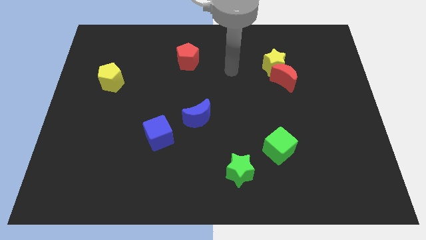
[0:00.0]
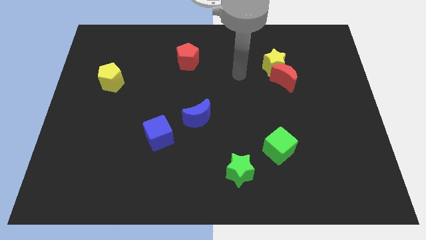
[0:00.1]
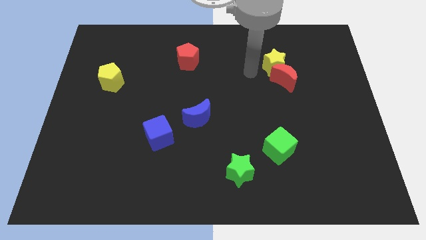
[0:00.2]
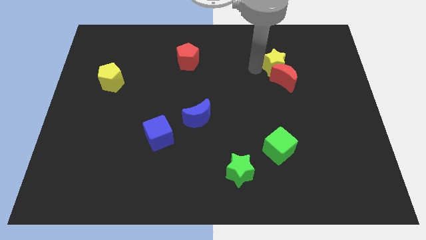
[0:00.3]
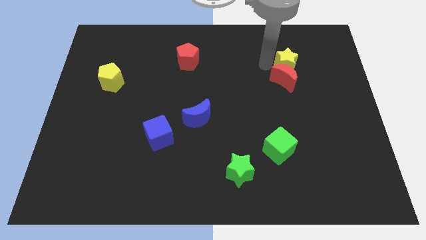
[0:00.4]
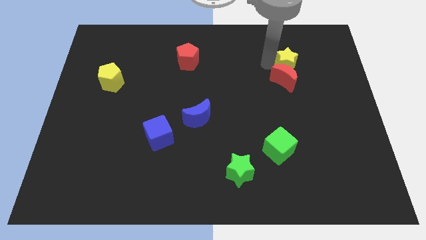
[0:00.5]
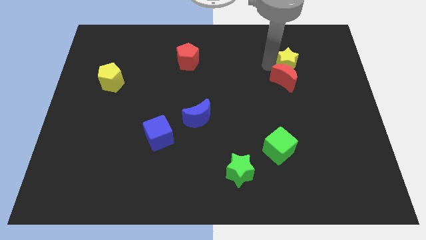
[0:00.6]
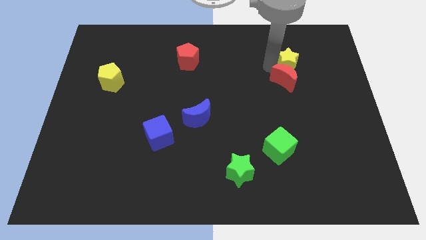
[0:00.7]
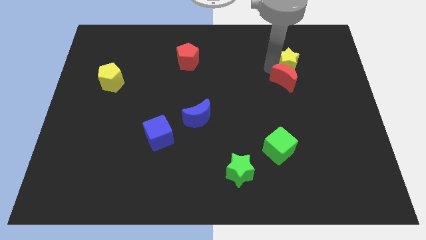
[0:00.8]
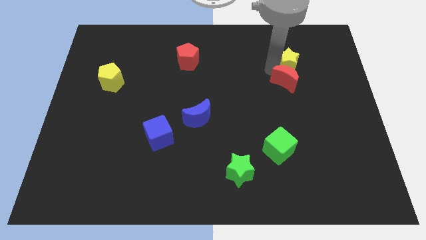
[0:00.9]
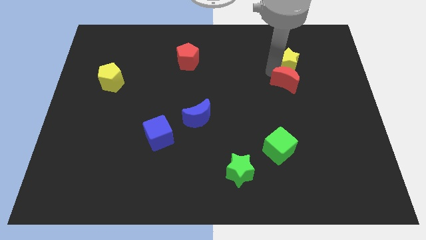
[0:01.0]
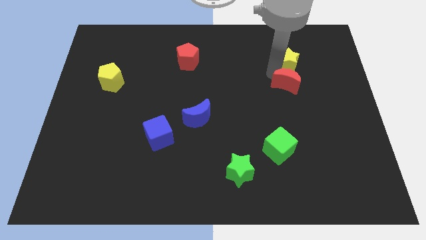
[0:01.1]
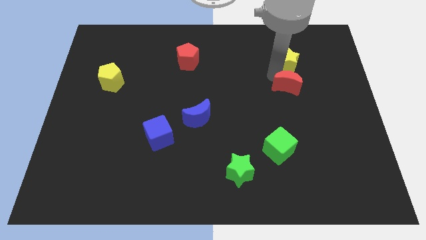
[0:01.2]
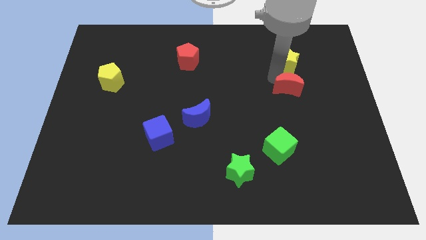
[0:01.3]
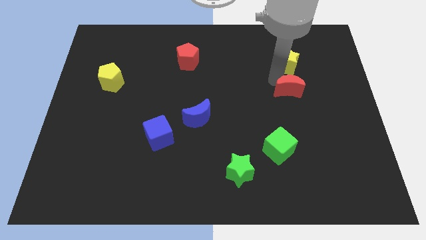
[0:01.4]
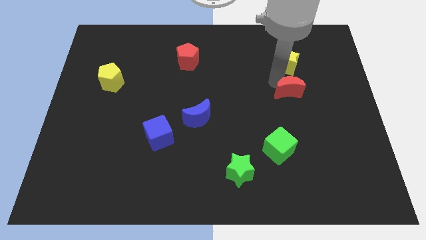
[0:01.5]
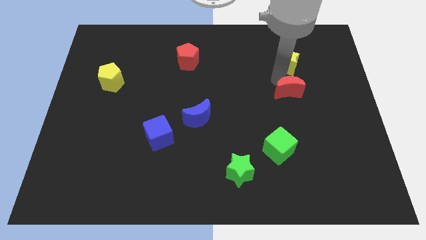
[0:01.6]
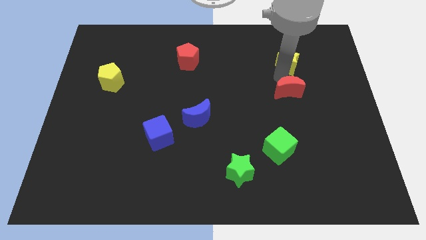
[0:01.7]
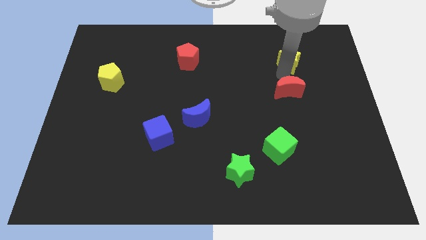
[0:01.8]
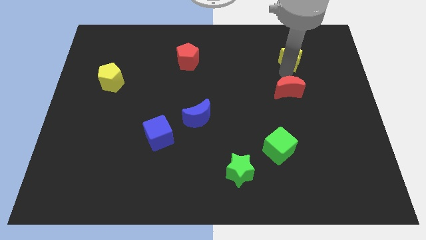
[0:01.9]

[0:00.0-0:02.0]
move the red moon away from the yellow star

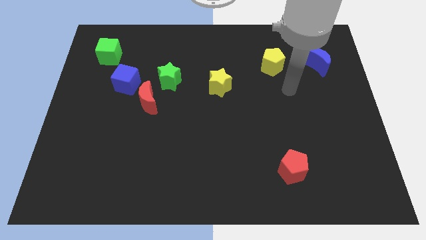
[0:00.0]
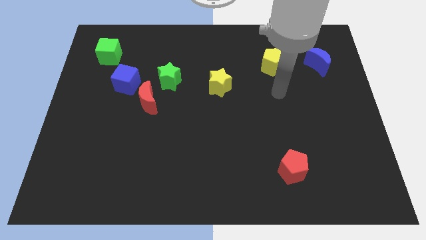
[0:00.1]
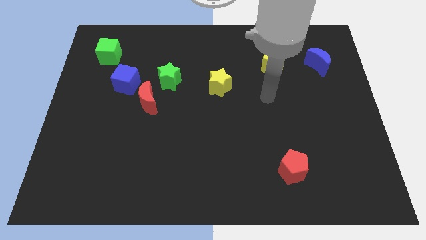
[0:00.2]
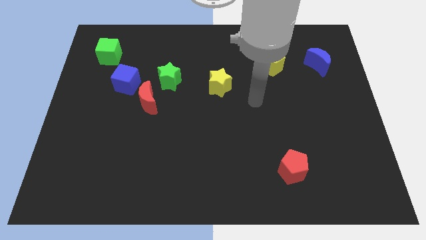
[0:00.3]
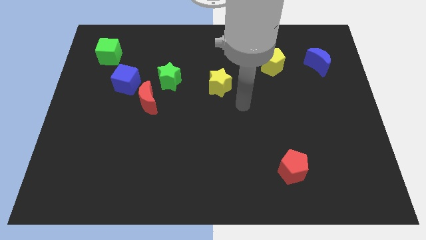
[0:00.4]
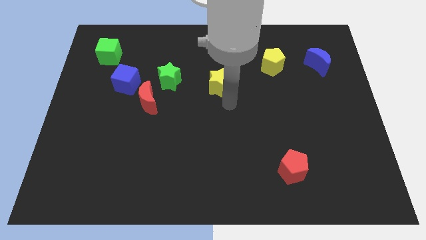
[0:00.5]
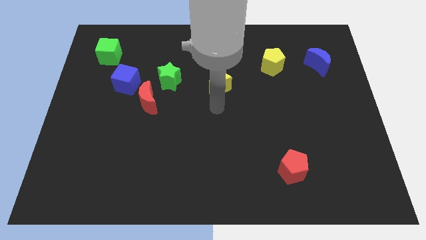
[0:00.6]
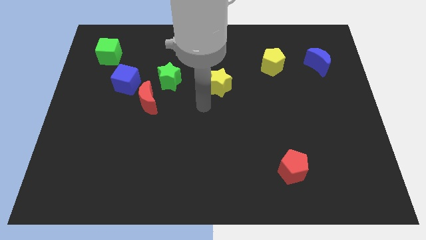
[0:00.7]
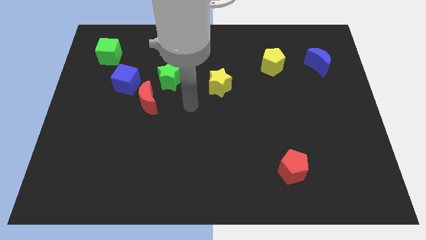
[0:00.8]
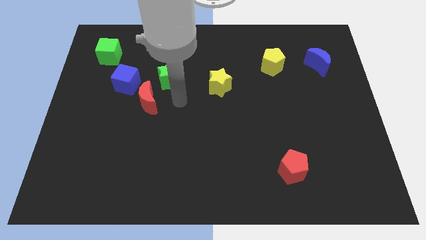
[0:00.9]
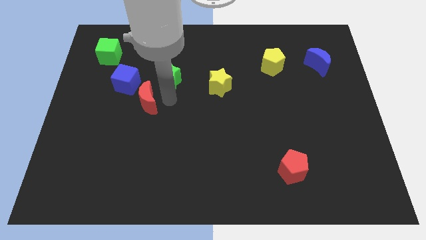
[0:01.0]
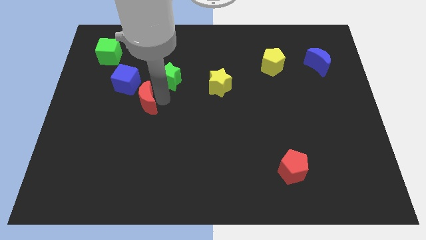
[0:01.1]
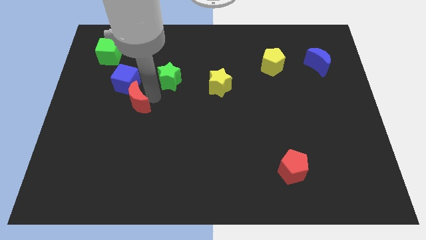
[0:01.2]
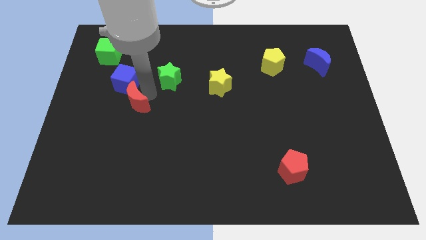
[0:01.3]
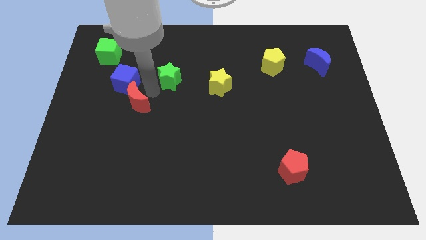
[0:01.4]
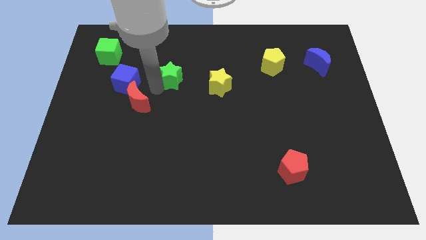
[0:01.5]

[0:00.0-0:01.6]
pull the green star apart from the red moon

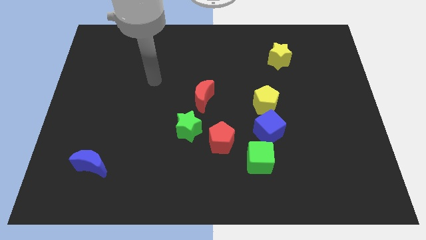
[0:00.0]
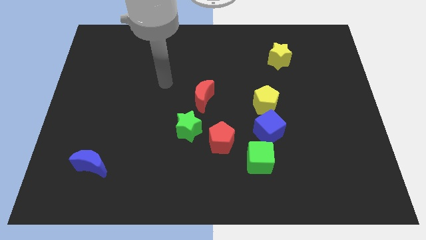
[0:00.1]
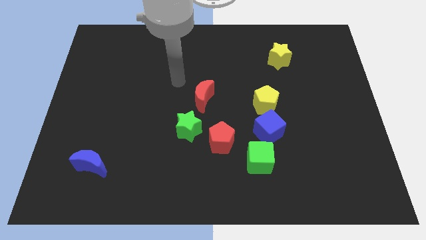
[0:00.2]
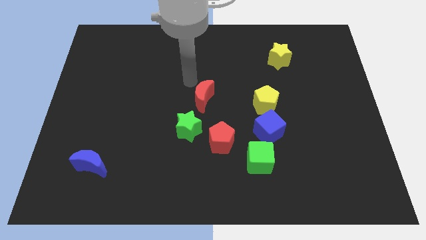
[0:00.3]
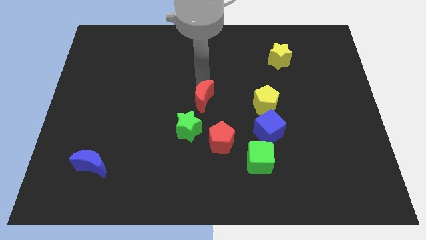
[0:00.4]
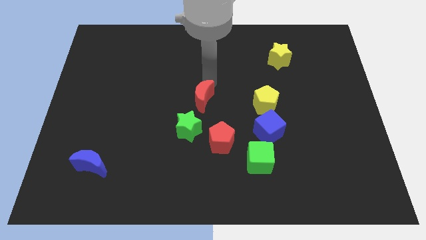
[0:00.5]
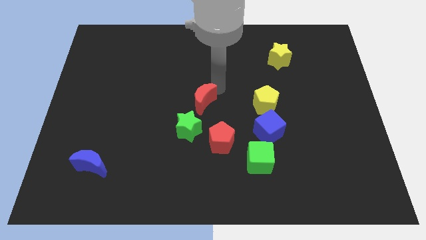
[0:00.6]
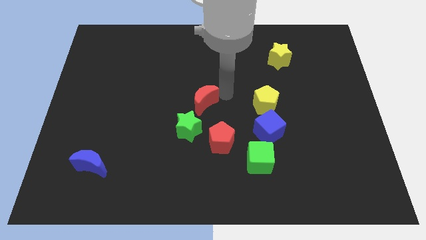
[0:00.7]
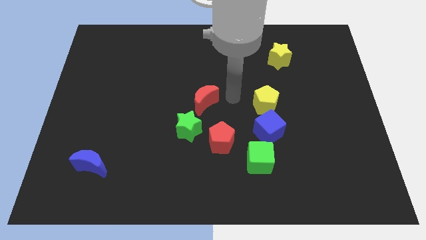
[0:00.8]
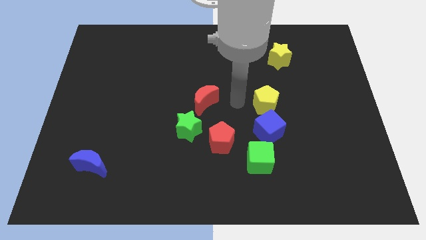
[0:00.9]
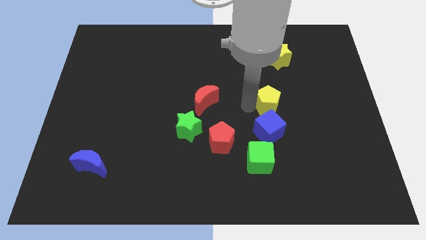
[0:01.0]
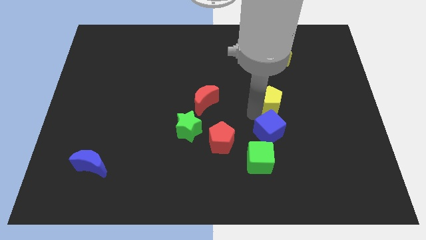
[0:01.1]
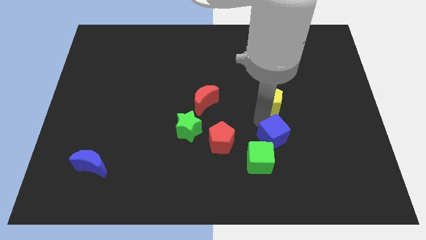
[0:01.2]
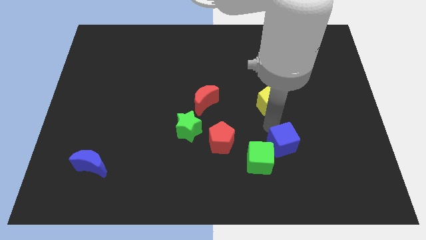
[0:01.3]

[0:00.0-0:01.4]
pull the yellow pentagon apart from the blue cube

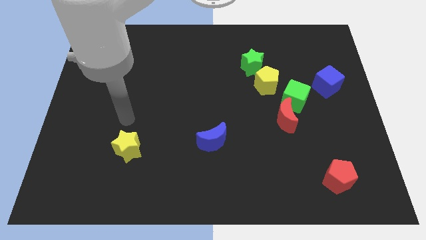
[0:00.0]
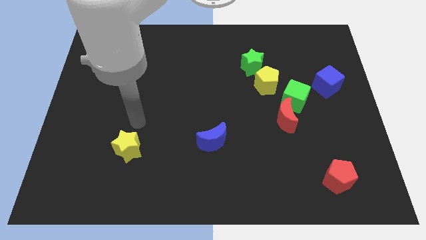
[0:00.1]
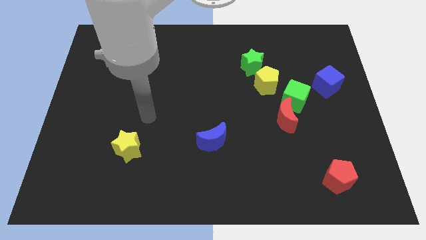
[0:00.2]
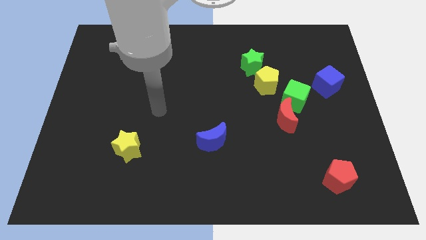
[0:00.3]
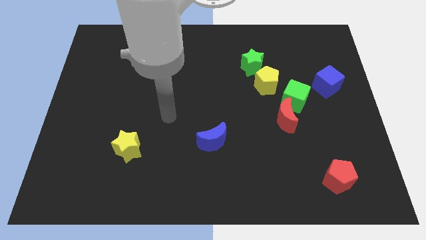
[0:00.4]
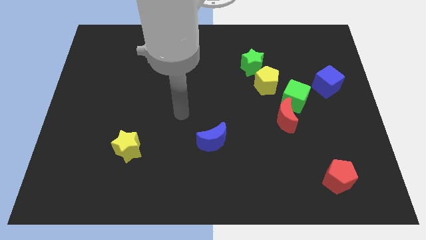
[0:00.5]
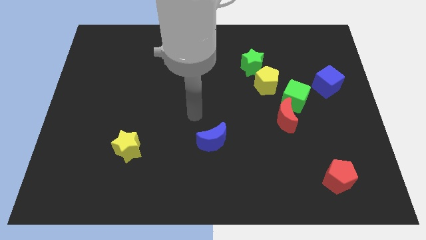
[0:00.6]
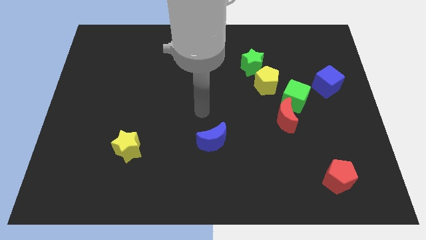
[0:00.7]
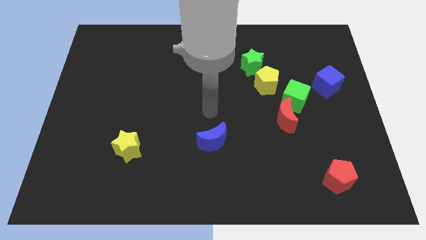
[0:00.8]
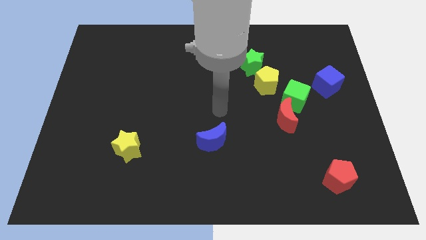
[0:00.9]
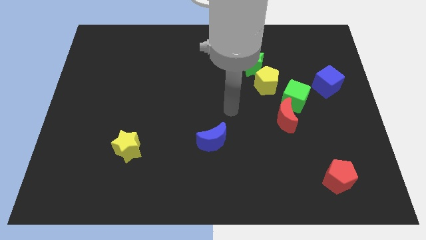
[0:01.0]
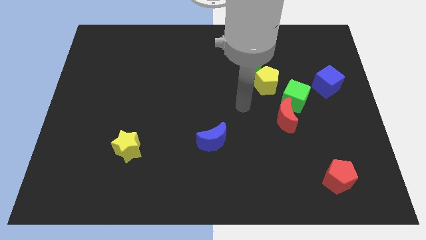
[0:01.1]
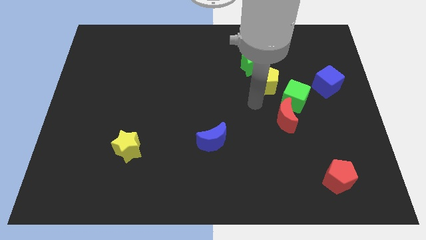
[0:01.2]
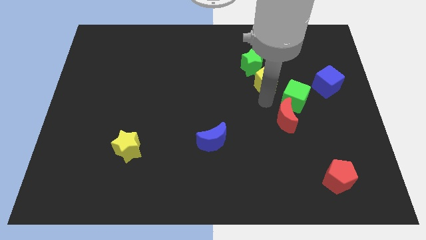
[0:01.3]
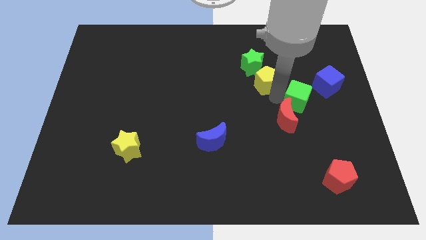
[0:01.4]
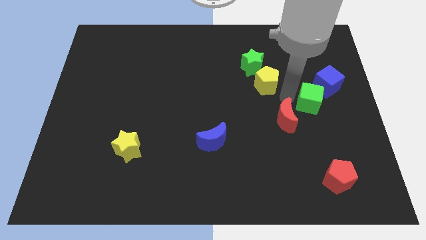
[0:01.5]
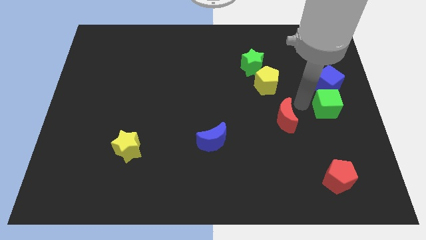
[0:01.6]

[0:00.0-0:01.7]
separate the red moon from the green cube

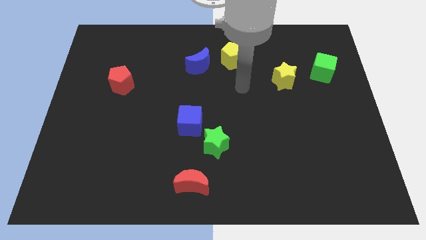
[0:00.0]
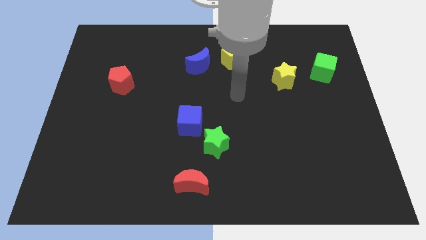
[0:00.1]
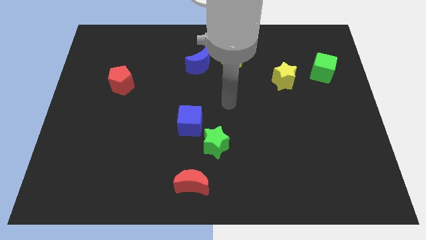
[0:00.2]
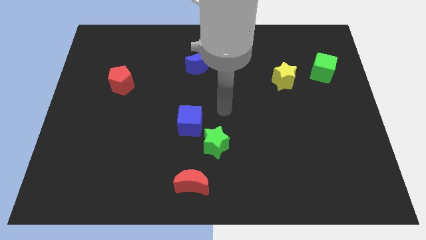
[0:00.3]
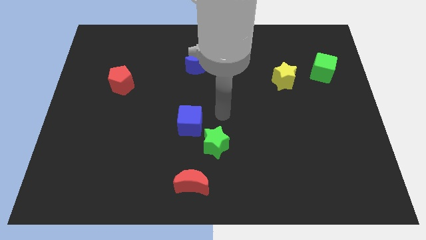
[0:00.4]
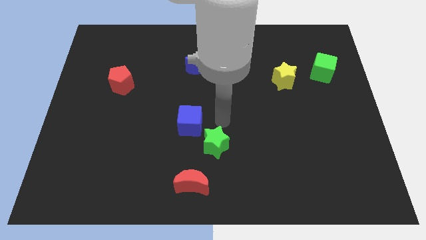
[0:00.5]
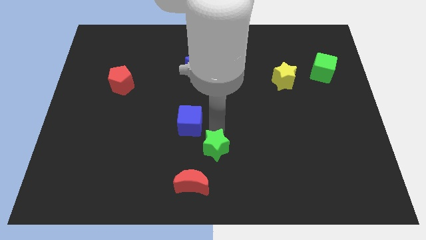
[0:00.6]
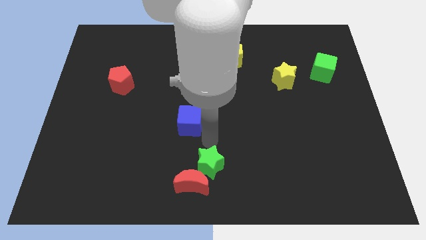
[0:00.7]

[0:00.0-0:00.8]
move the blue cube away from the green star

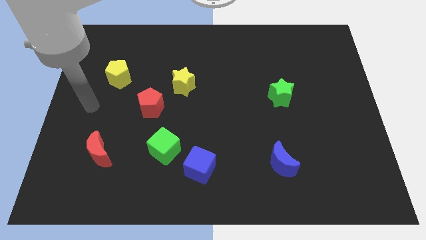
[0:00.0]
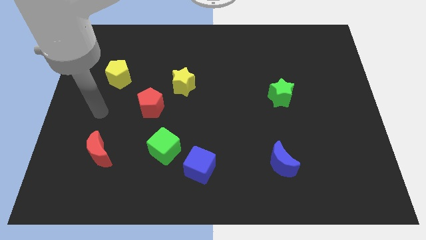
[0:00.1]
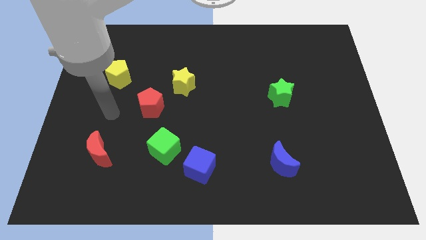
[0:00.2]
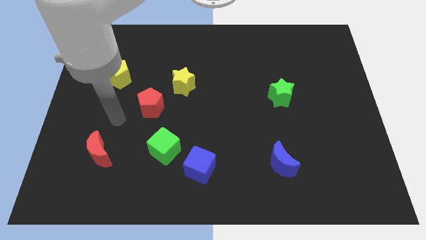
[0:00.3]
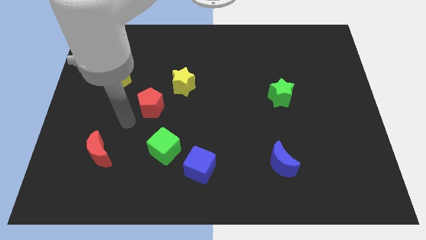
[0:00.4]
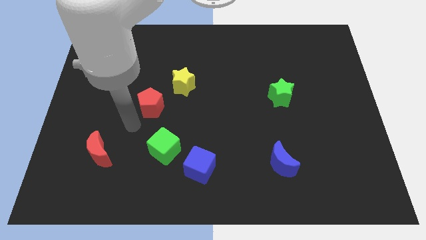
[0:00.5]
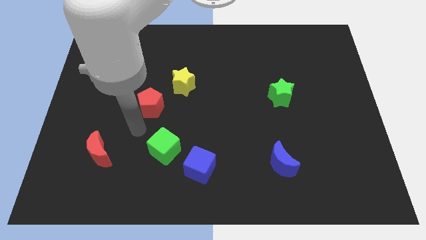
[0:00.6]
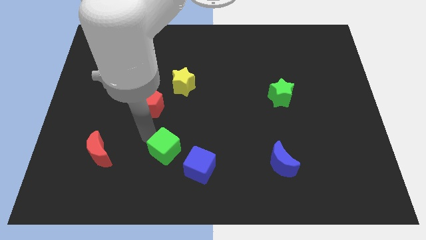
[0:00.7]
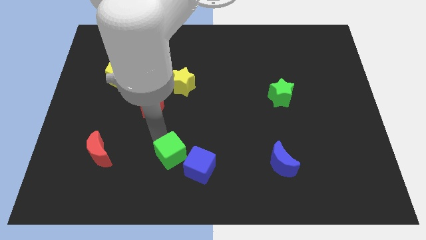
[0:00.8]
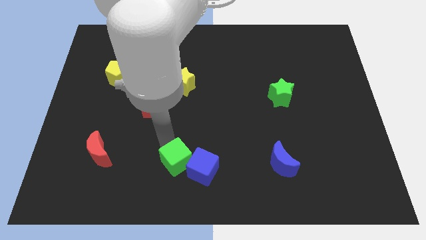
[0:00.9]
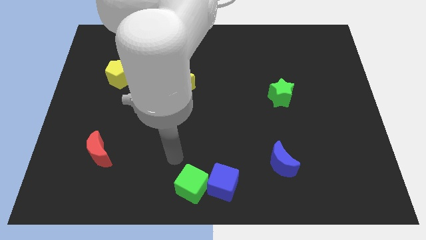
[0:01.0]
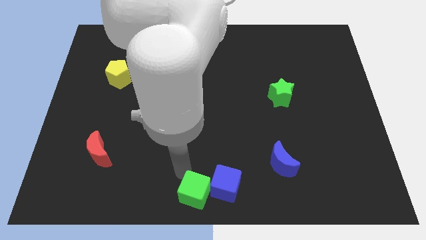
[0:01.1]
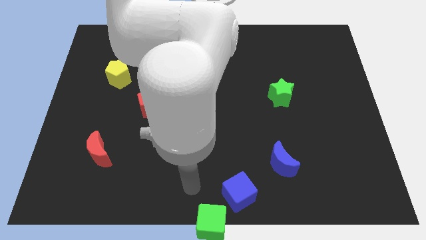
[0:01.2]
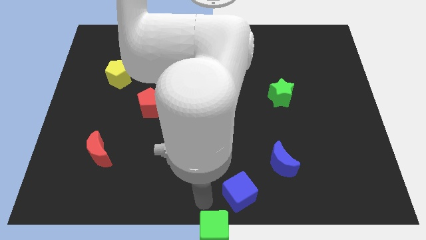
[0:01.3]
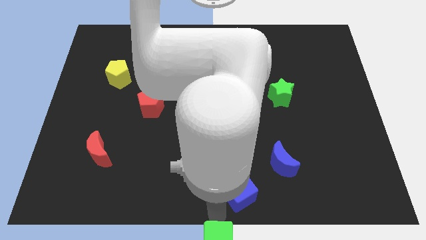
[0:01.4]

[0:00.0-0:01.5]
pull the blue cube apart from the green cube

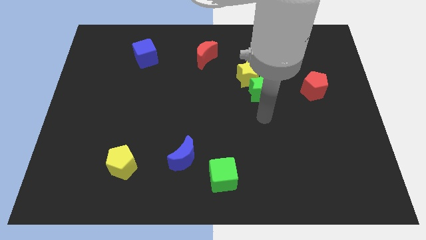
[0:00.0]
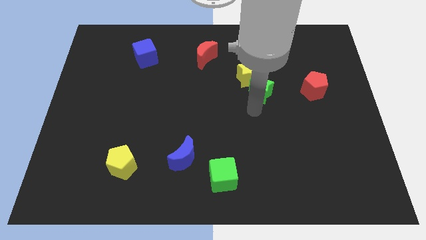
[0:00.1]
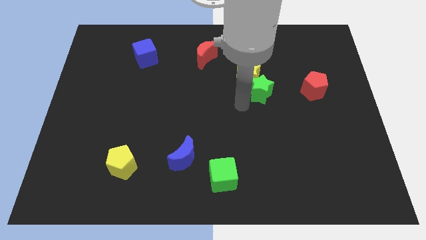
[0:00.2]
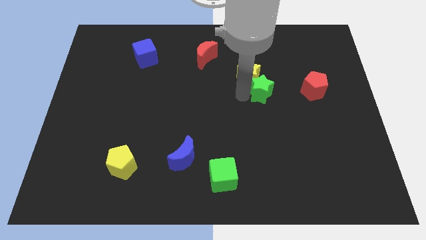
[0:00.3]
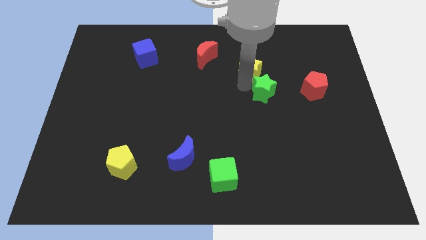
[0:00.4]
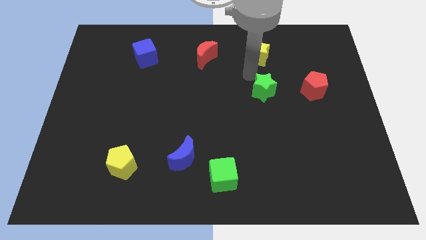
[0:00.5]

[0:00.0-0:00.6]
separate the green star from the yellow star
